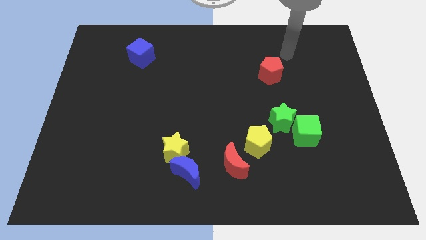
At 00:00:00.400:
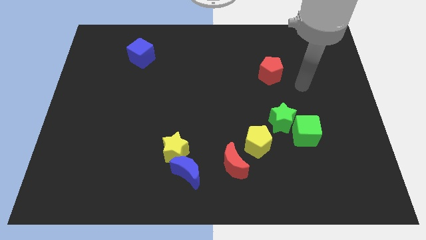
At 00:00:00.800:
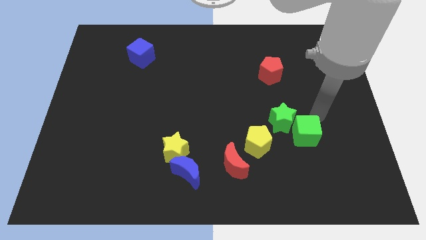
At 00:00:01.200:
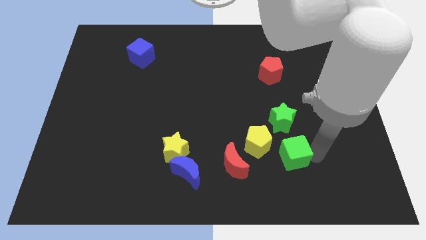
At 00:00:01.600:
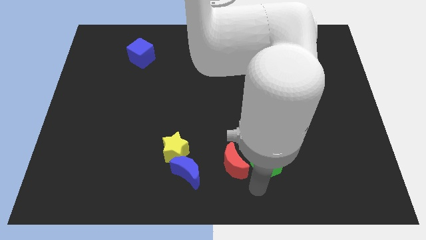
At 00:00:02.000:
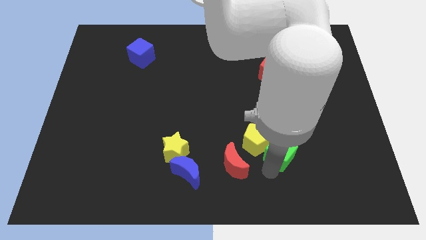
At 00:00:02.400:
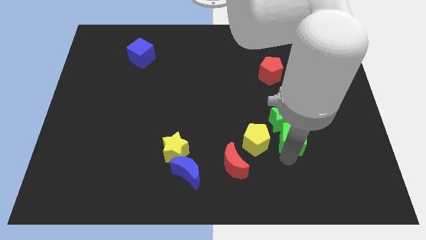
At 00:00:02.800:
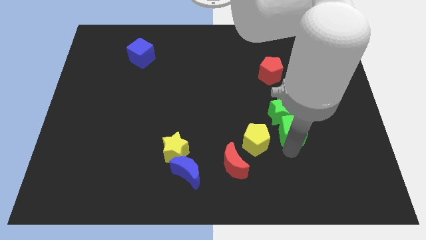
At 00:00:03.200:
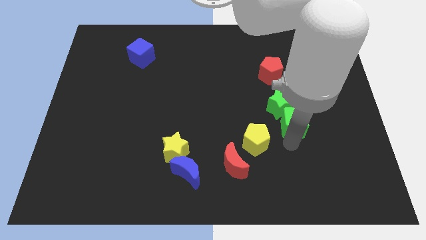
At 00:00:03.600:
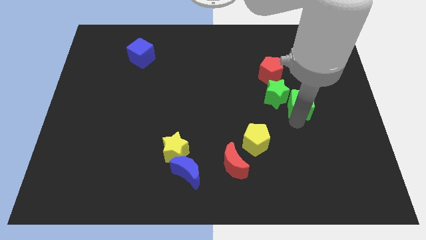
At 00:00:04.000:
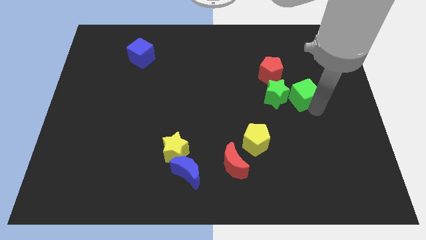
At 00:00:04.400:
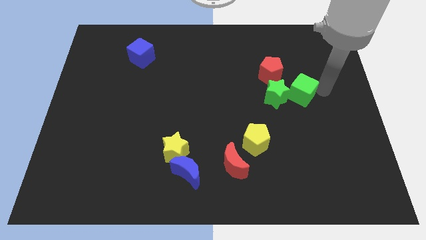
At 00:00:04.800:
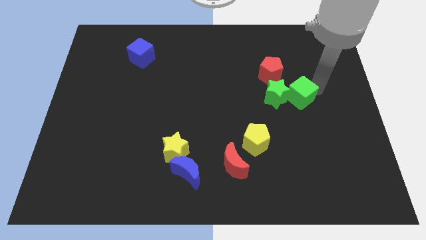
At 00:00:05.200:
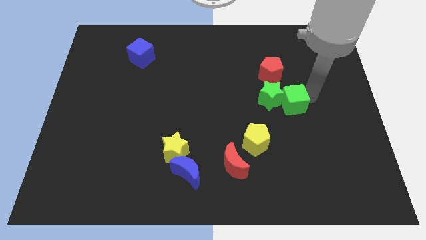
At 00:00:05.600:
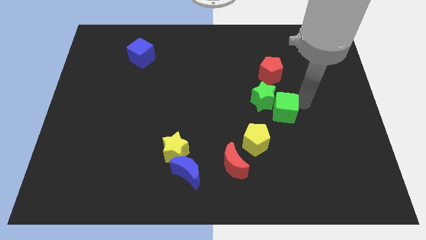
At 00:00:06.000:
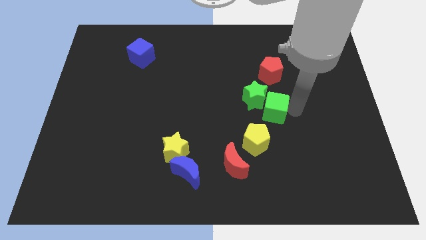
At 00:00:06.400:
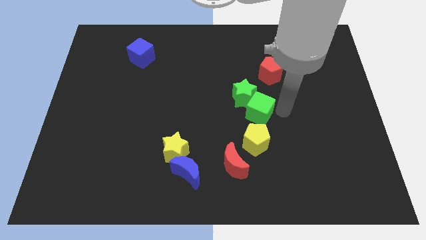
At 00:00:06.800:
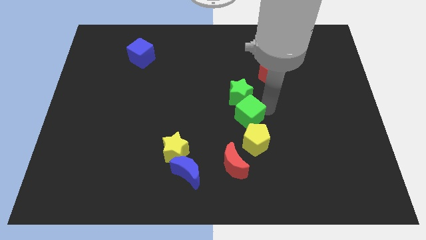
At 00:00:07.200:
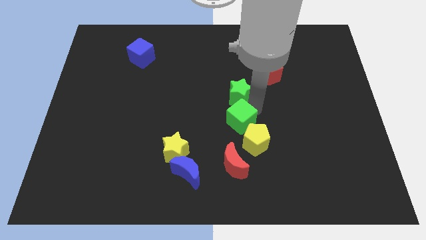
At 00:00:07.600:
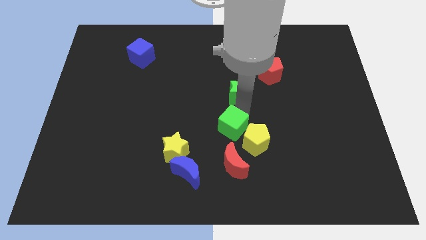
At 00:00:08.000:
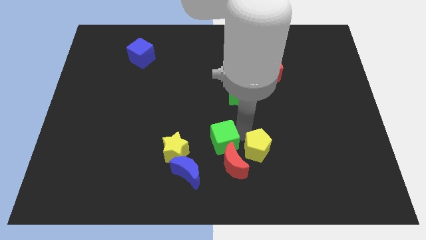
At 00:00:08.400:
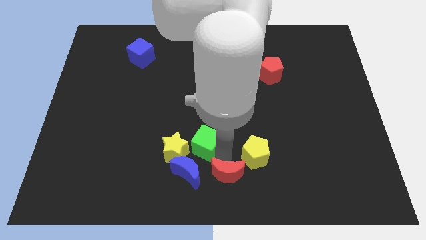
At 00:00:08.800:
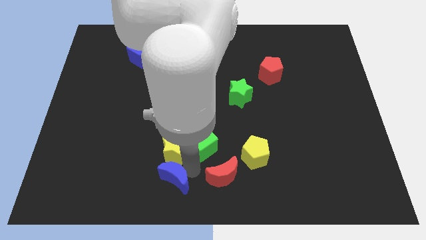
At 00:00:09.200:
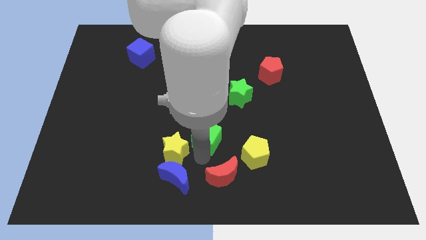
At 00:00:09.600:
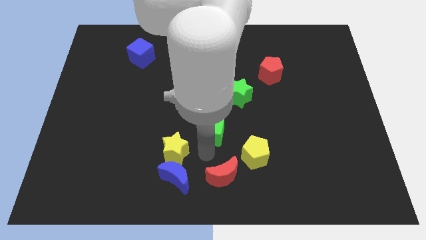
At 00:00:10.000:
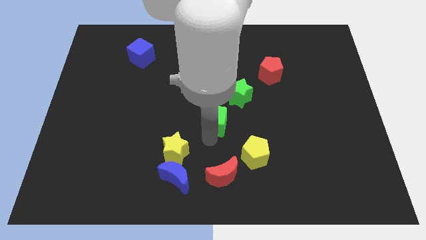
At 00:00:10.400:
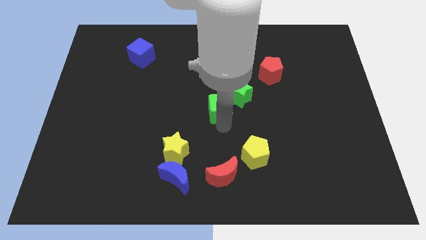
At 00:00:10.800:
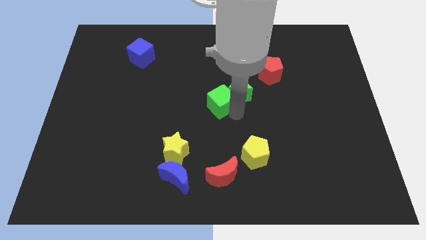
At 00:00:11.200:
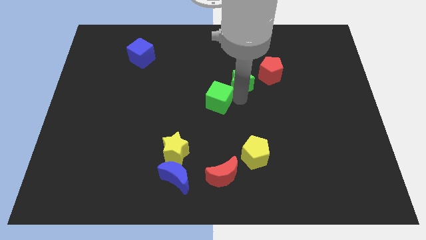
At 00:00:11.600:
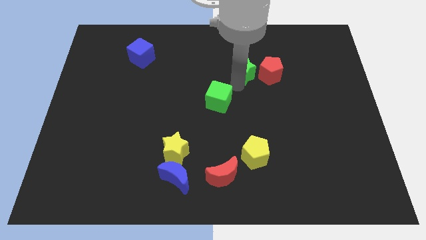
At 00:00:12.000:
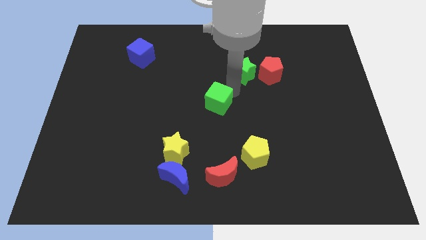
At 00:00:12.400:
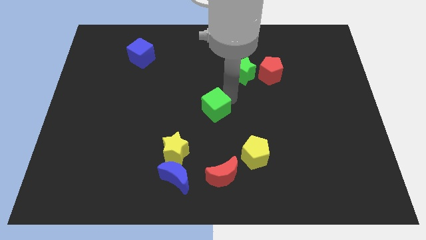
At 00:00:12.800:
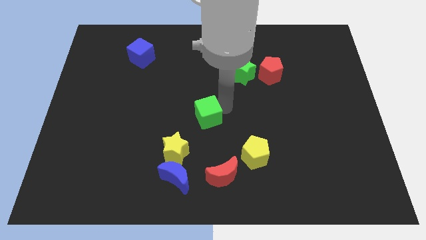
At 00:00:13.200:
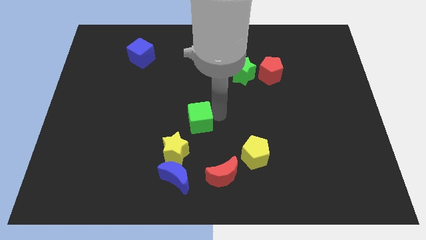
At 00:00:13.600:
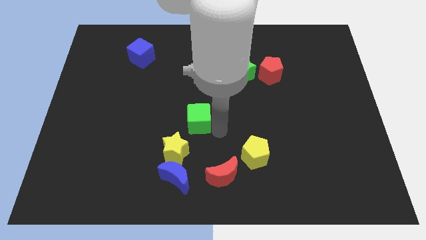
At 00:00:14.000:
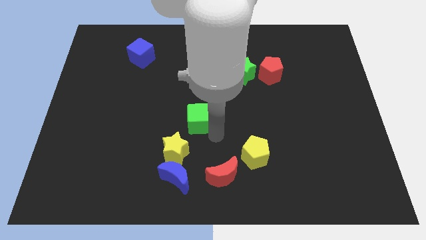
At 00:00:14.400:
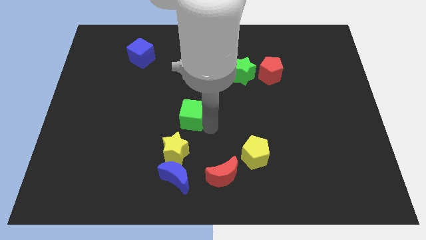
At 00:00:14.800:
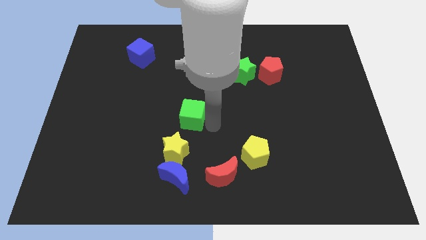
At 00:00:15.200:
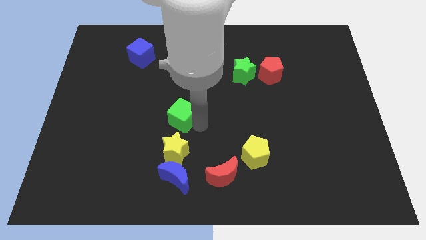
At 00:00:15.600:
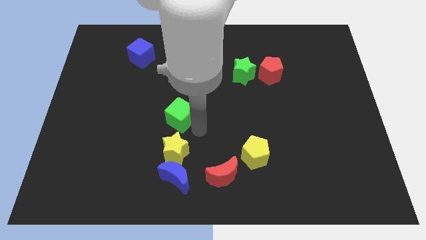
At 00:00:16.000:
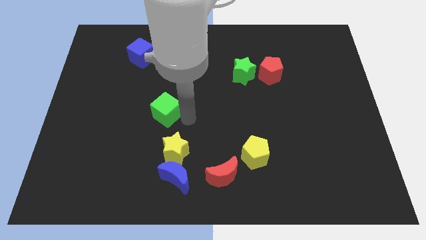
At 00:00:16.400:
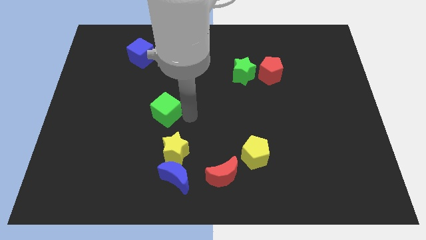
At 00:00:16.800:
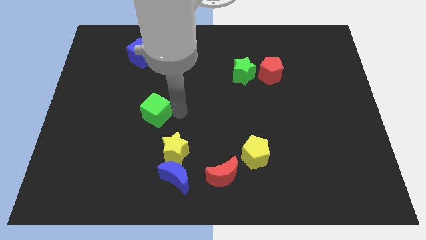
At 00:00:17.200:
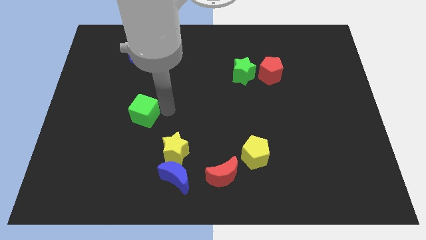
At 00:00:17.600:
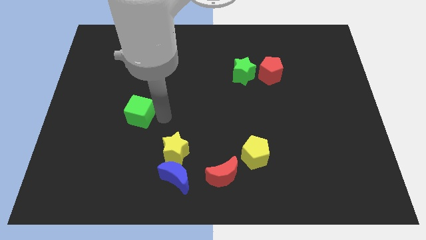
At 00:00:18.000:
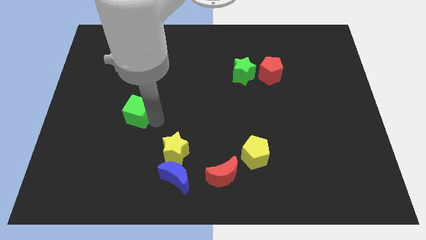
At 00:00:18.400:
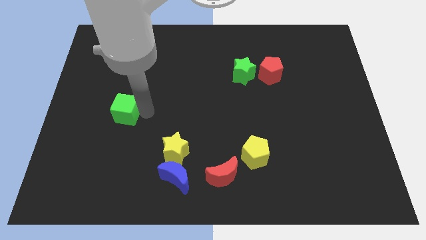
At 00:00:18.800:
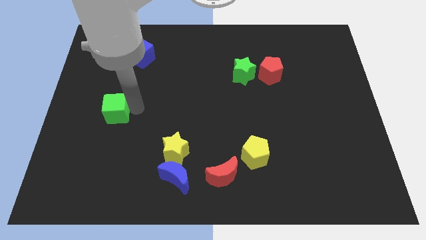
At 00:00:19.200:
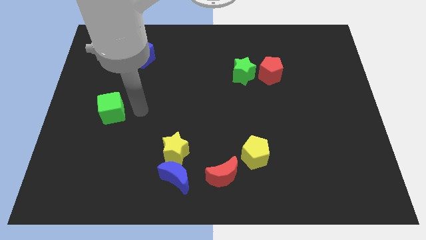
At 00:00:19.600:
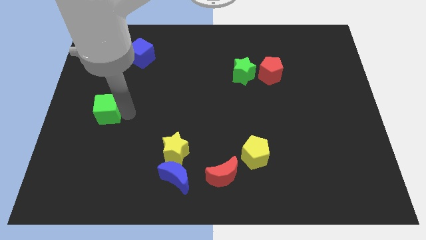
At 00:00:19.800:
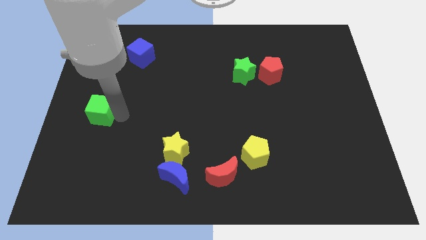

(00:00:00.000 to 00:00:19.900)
move the green cube to the left side of the board
